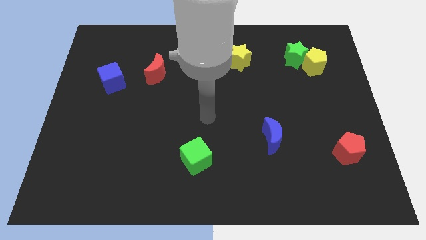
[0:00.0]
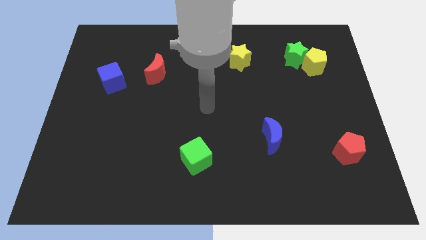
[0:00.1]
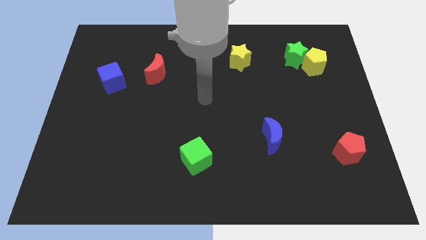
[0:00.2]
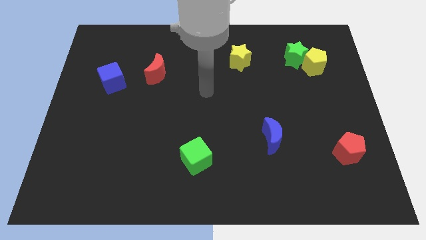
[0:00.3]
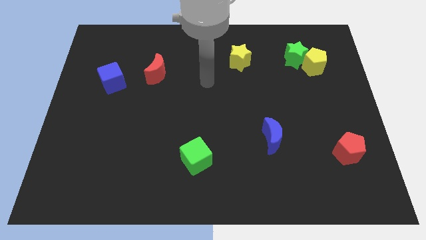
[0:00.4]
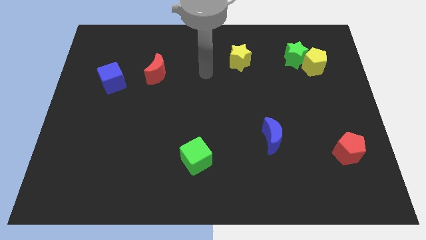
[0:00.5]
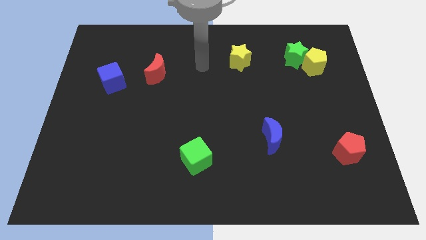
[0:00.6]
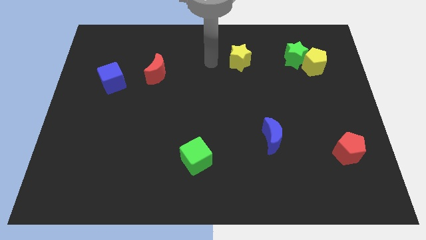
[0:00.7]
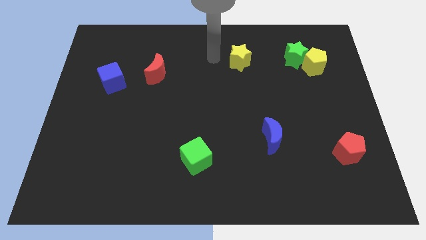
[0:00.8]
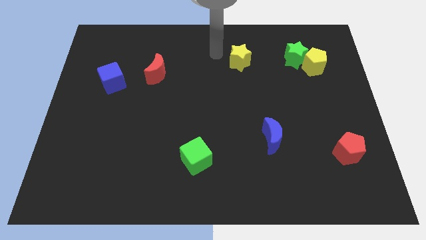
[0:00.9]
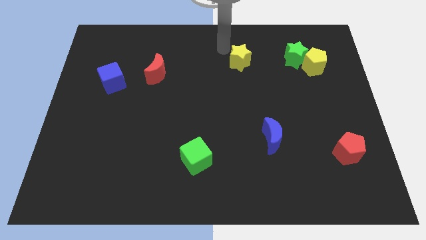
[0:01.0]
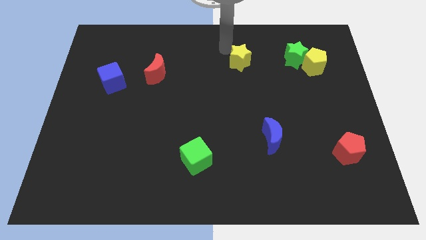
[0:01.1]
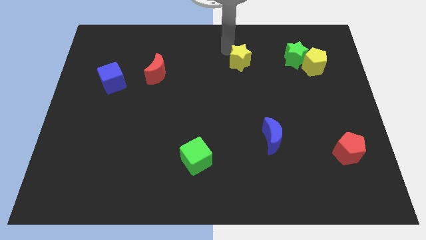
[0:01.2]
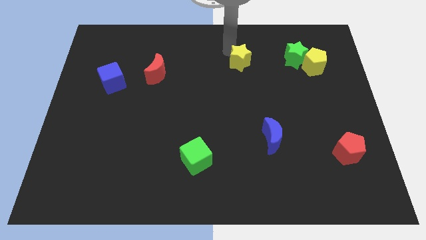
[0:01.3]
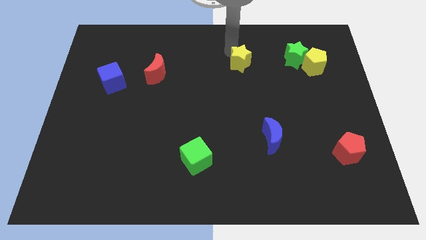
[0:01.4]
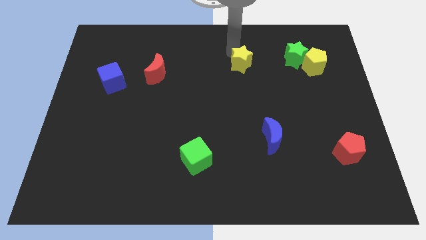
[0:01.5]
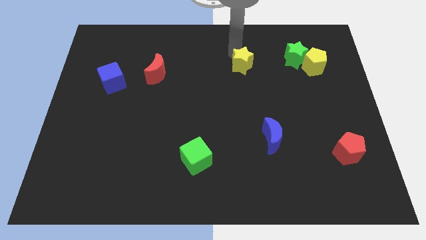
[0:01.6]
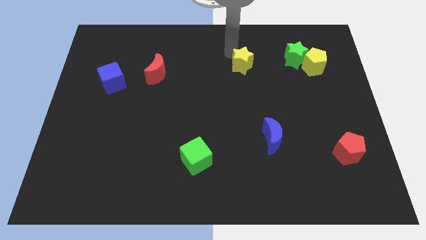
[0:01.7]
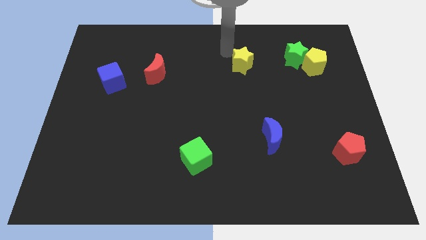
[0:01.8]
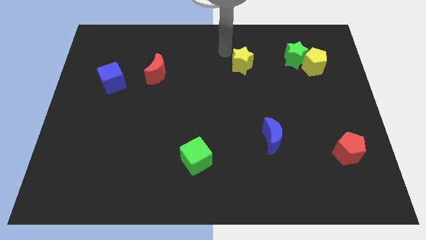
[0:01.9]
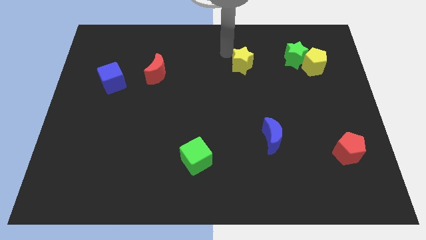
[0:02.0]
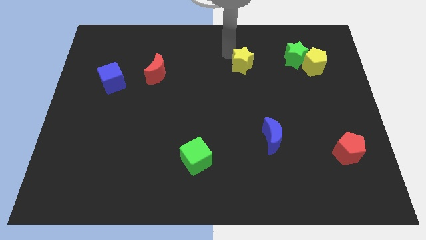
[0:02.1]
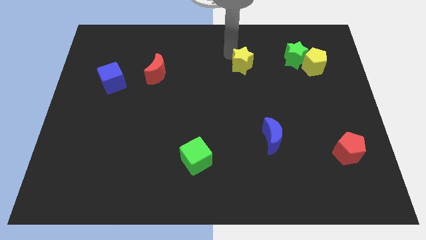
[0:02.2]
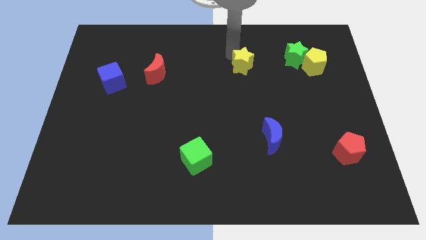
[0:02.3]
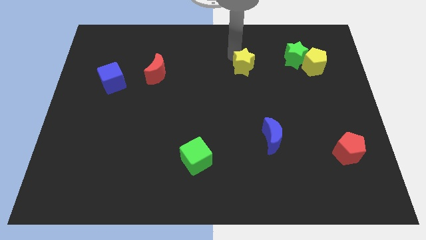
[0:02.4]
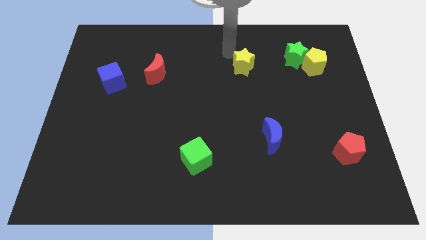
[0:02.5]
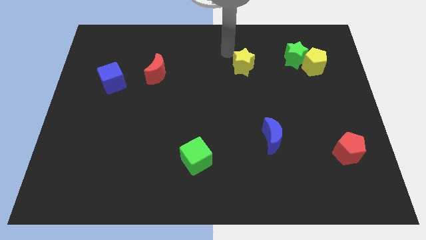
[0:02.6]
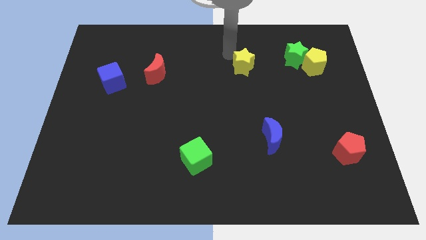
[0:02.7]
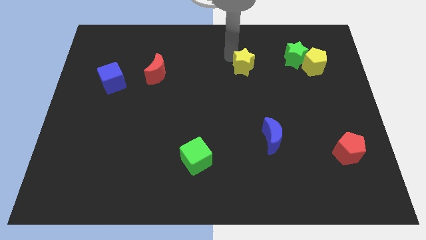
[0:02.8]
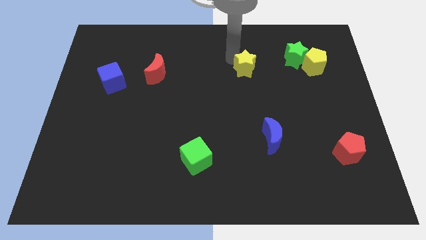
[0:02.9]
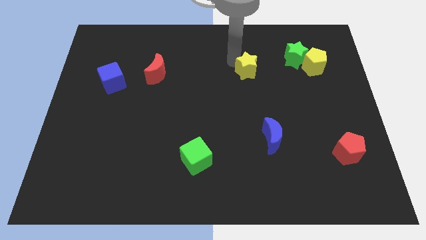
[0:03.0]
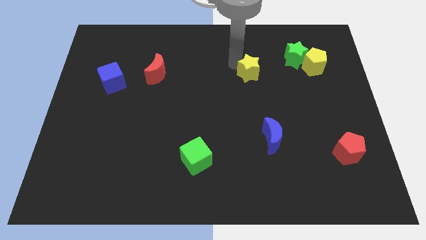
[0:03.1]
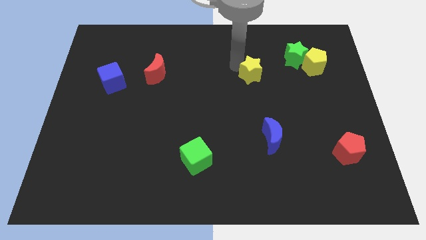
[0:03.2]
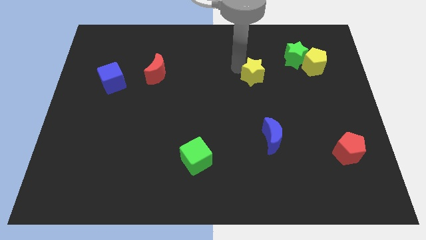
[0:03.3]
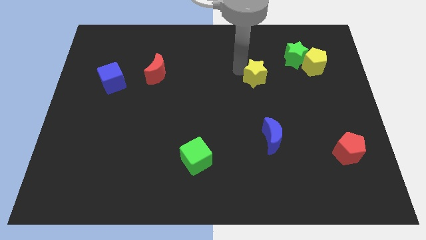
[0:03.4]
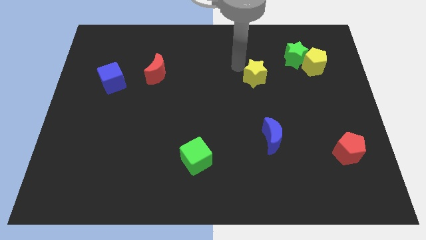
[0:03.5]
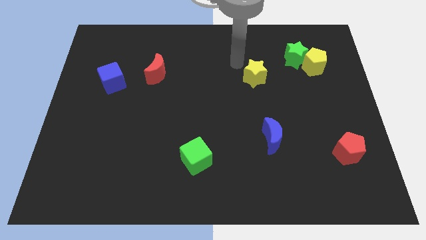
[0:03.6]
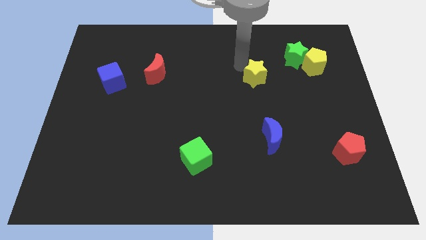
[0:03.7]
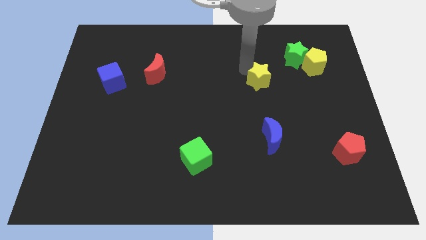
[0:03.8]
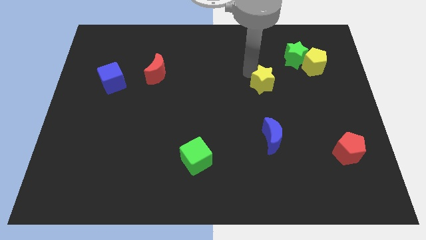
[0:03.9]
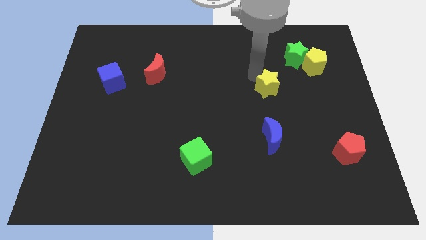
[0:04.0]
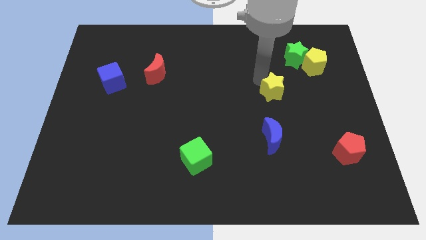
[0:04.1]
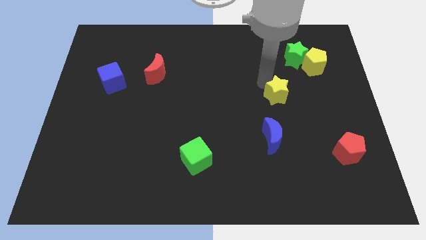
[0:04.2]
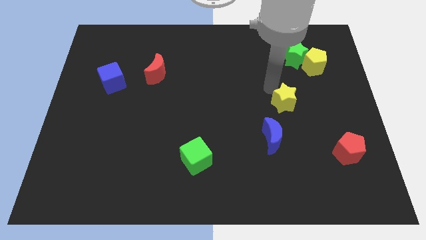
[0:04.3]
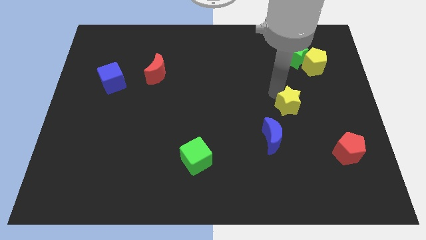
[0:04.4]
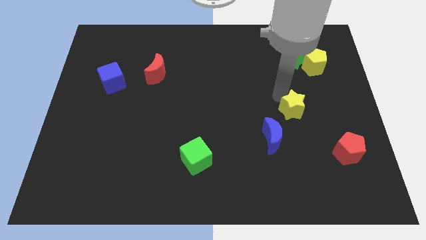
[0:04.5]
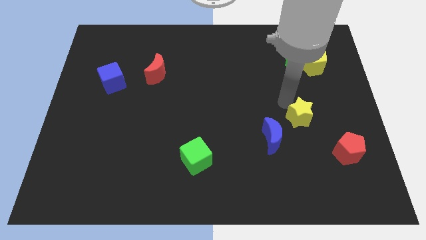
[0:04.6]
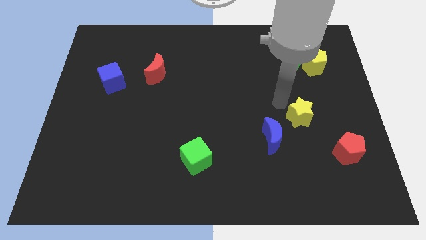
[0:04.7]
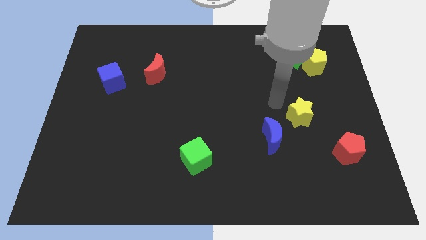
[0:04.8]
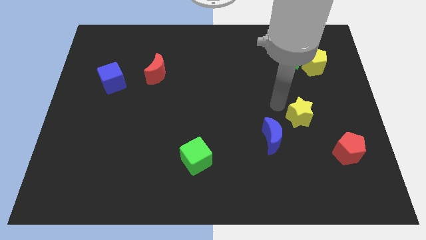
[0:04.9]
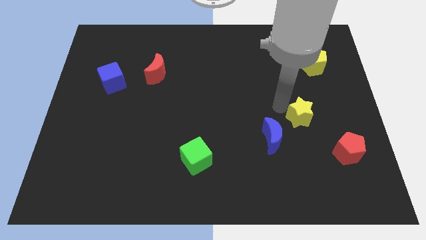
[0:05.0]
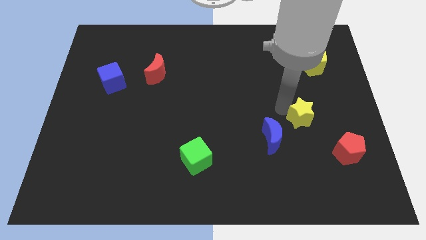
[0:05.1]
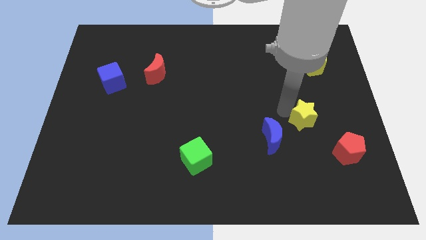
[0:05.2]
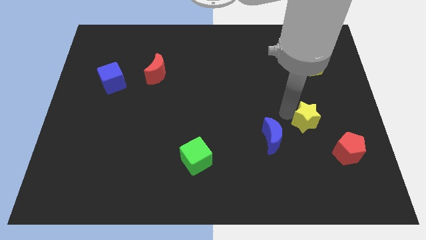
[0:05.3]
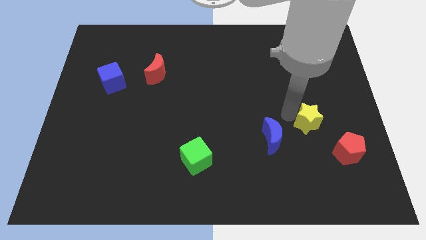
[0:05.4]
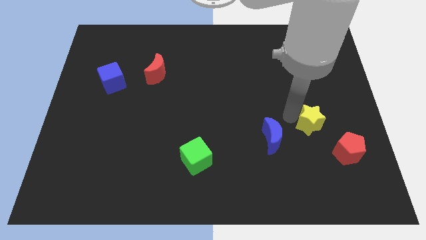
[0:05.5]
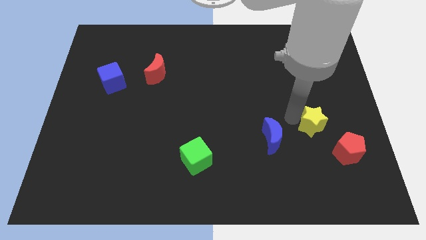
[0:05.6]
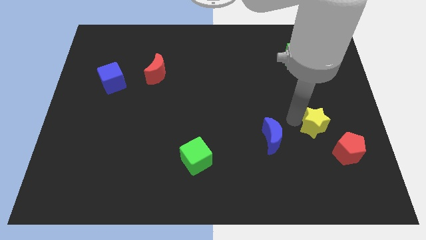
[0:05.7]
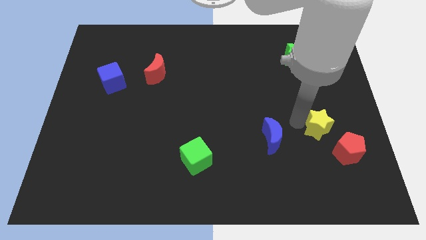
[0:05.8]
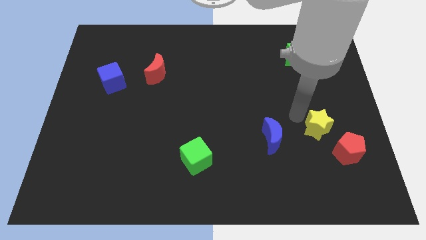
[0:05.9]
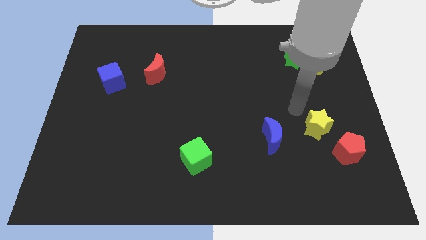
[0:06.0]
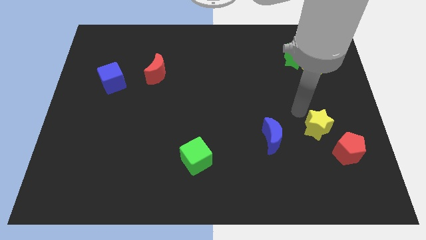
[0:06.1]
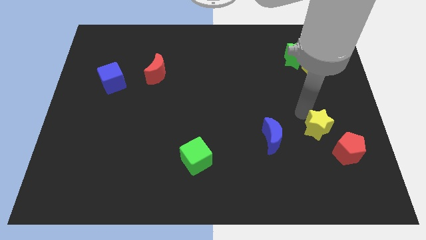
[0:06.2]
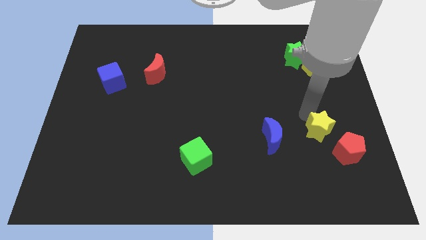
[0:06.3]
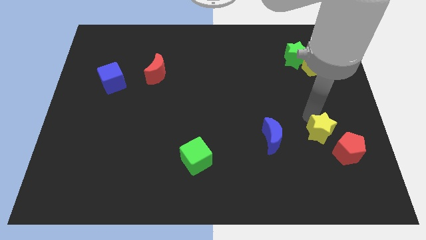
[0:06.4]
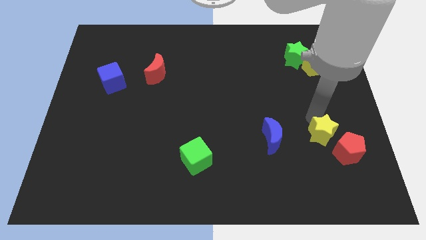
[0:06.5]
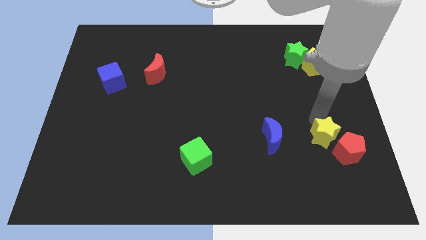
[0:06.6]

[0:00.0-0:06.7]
slide the yellow star close to the red pentagon

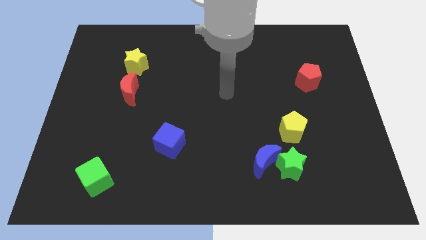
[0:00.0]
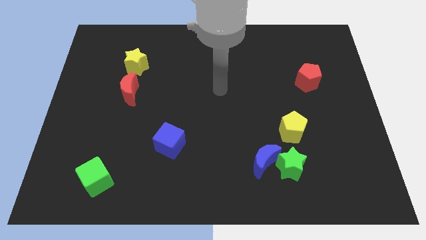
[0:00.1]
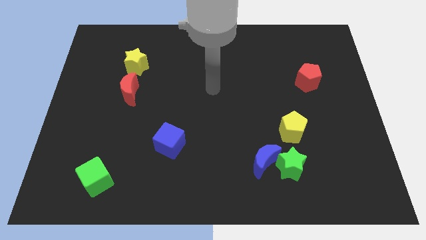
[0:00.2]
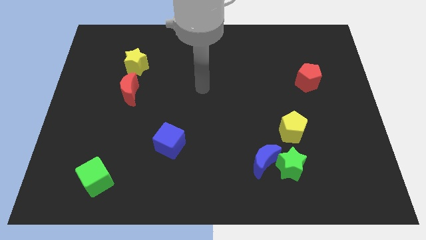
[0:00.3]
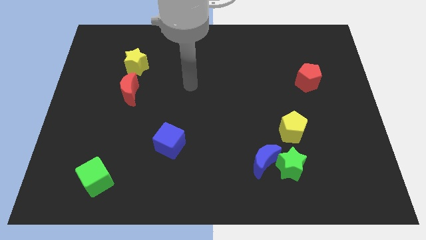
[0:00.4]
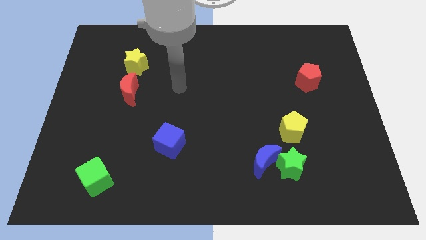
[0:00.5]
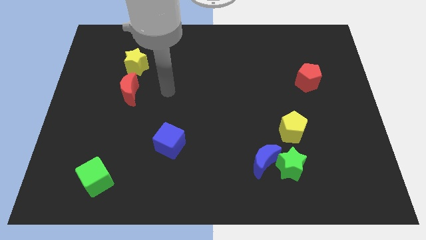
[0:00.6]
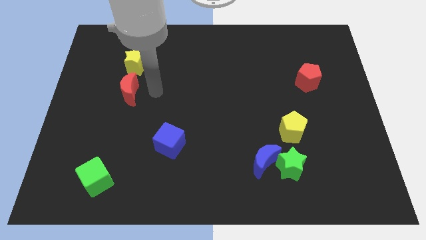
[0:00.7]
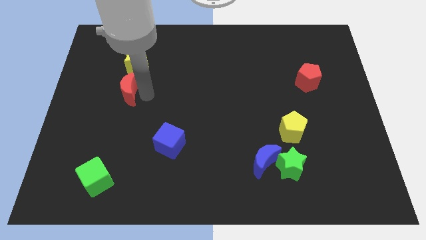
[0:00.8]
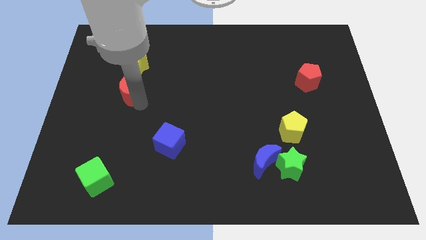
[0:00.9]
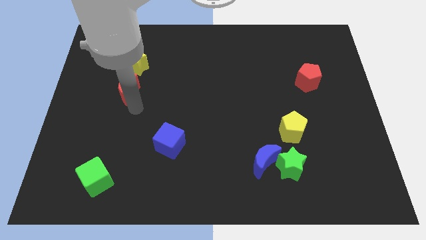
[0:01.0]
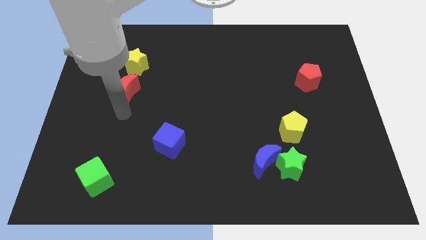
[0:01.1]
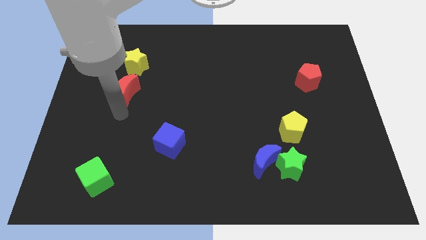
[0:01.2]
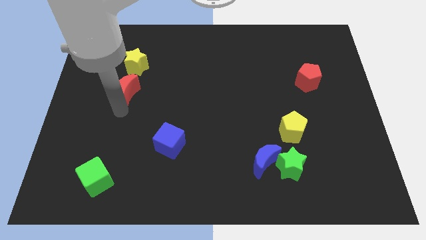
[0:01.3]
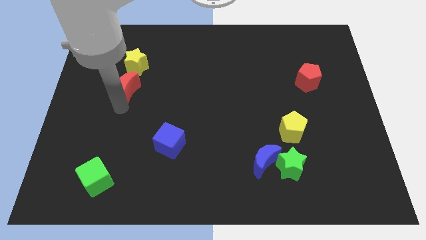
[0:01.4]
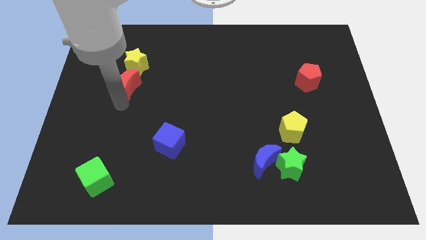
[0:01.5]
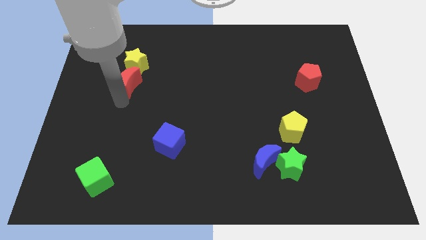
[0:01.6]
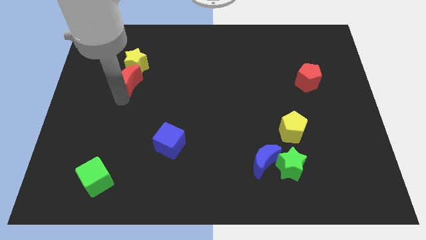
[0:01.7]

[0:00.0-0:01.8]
push the red moon next to the yellow star
